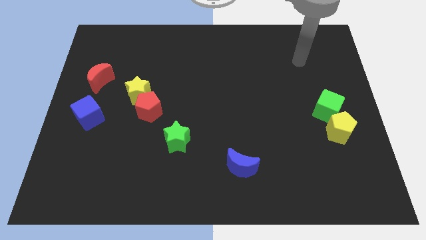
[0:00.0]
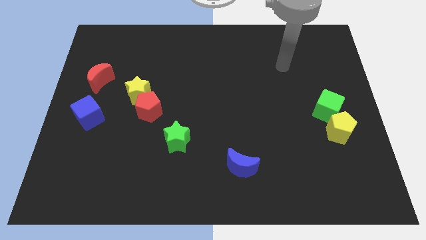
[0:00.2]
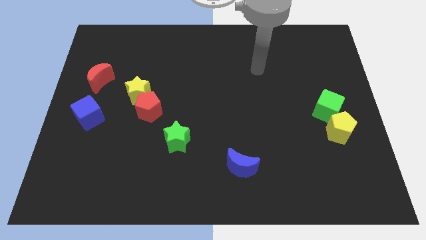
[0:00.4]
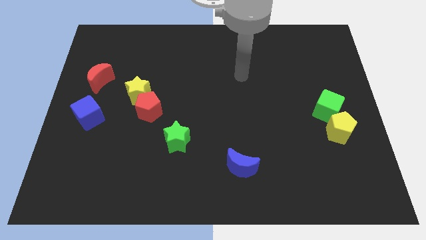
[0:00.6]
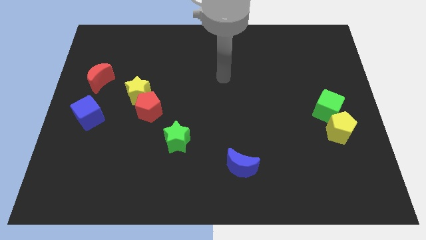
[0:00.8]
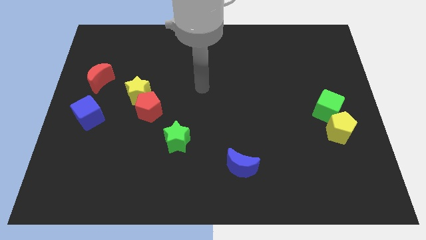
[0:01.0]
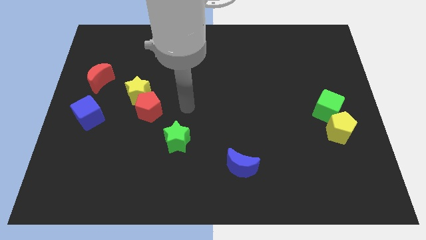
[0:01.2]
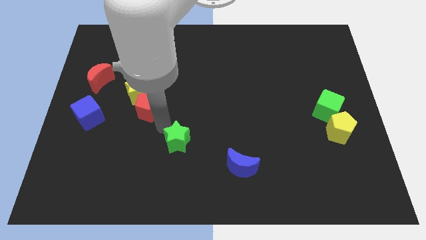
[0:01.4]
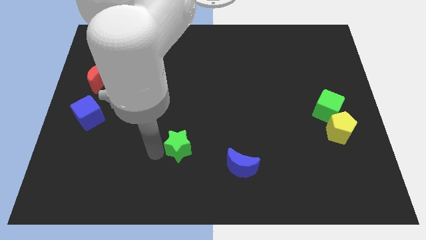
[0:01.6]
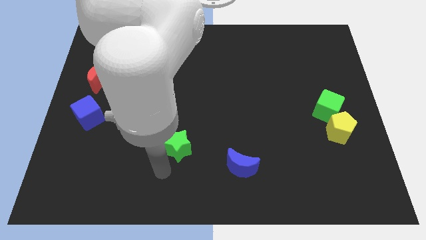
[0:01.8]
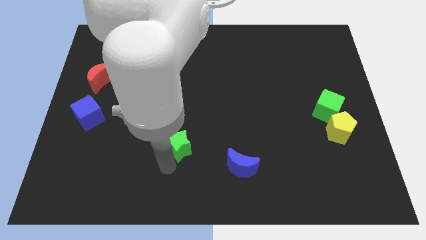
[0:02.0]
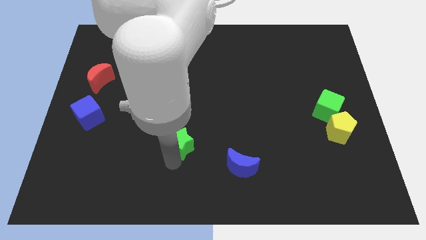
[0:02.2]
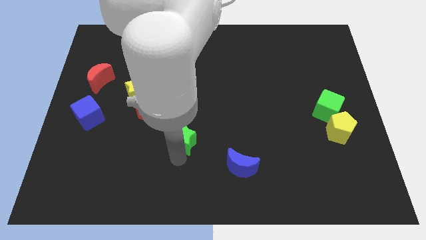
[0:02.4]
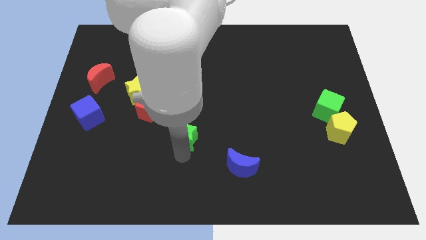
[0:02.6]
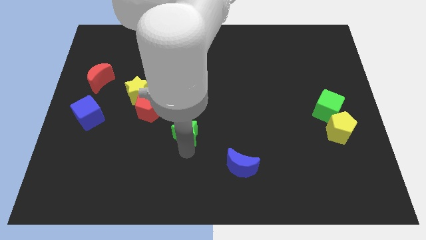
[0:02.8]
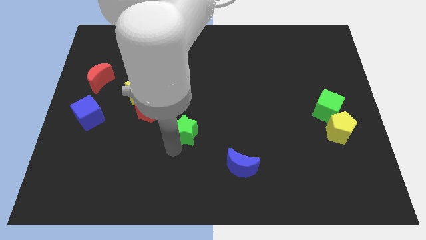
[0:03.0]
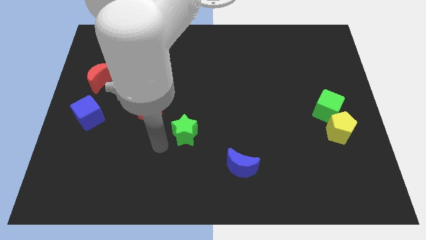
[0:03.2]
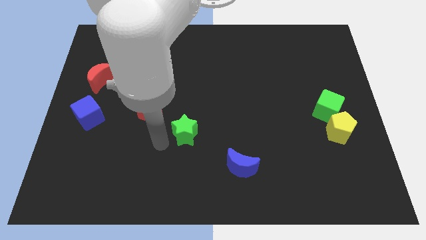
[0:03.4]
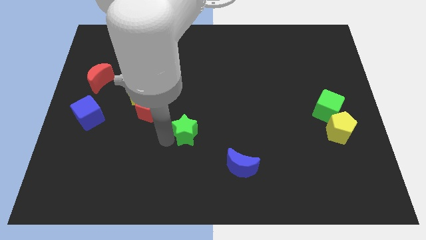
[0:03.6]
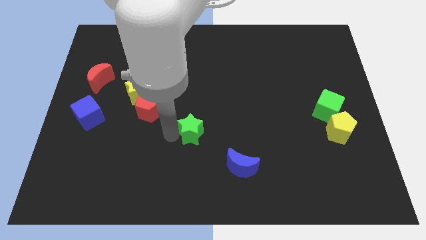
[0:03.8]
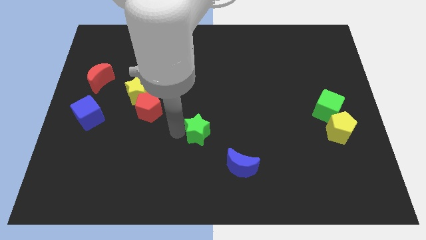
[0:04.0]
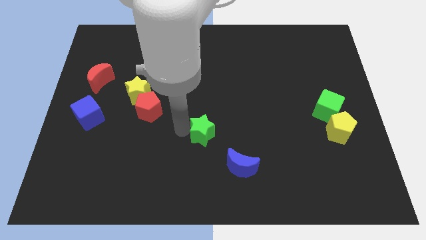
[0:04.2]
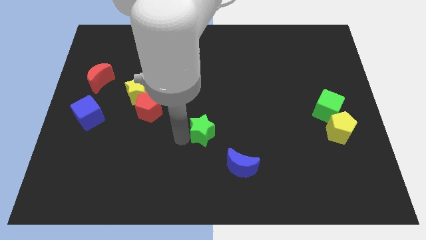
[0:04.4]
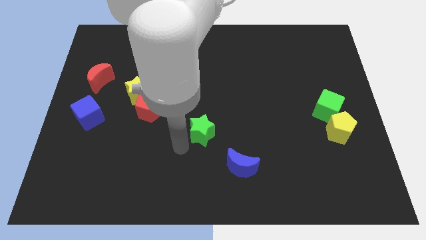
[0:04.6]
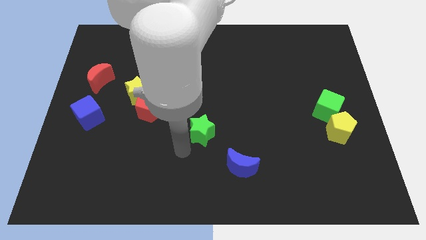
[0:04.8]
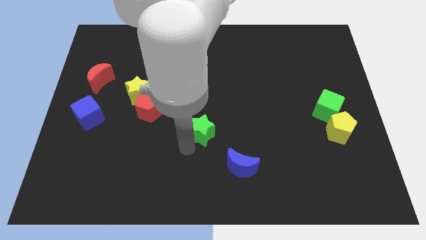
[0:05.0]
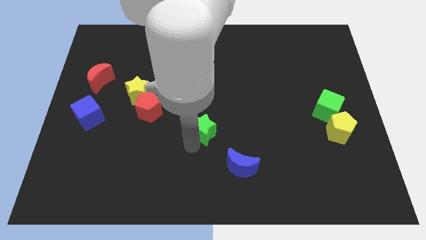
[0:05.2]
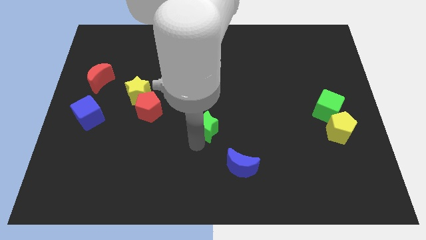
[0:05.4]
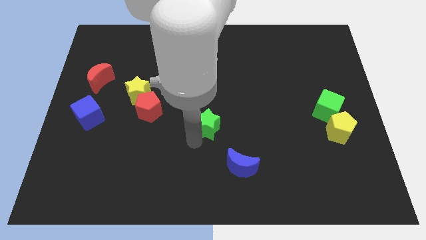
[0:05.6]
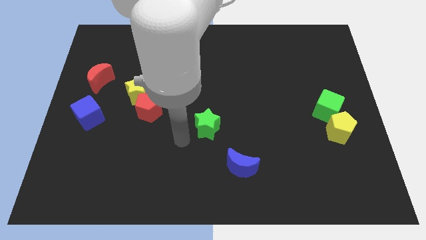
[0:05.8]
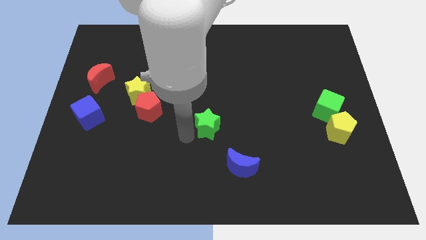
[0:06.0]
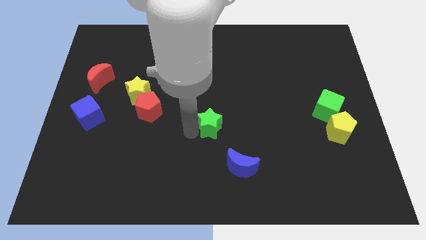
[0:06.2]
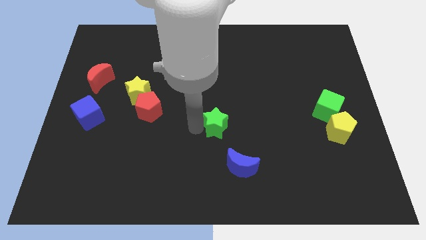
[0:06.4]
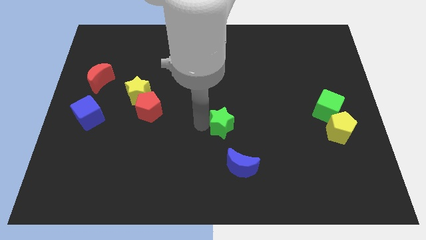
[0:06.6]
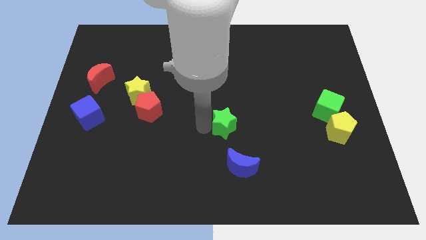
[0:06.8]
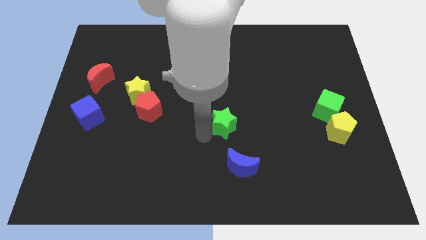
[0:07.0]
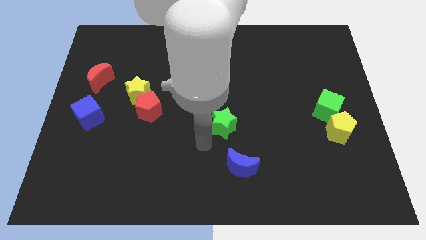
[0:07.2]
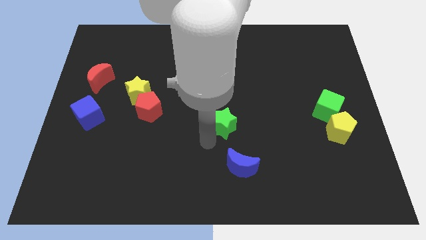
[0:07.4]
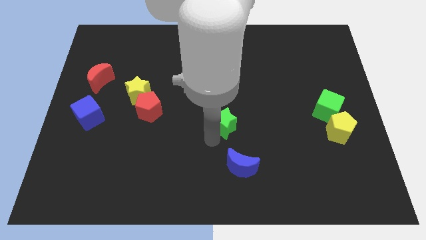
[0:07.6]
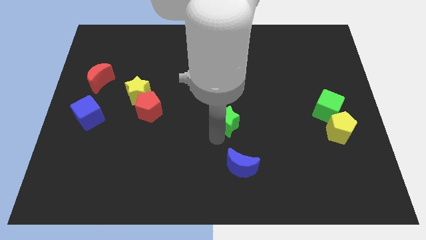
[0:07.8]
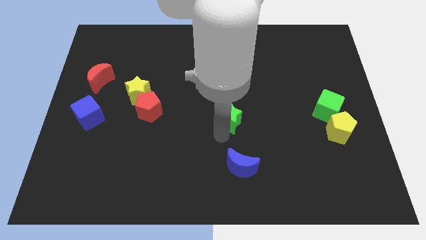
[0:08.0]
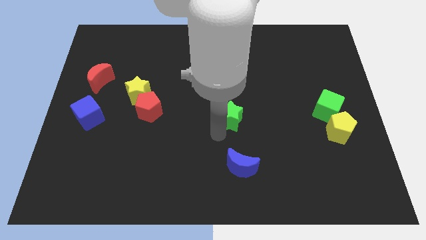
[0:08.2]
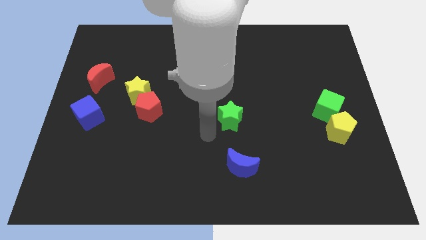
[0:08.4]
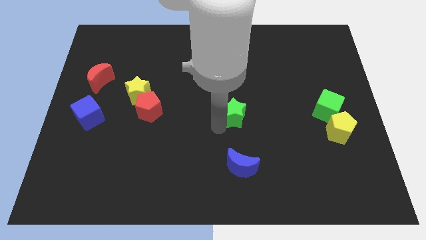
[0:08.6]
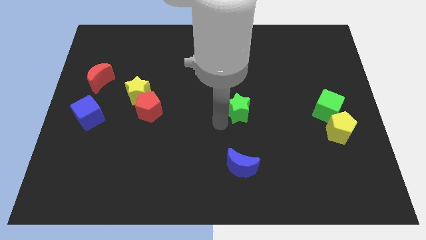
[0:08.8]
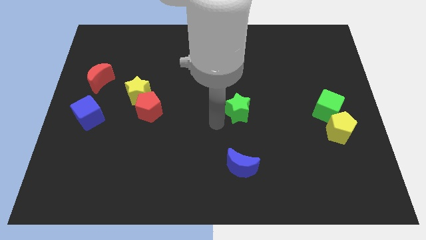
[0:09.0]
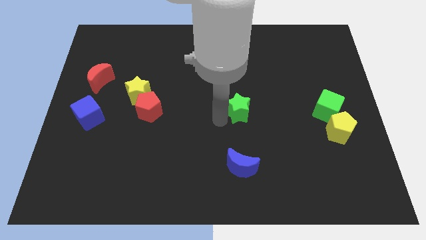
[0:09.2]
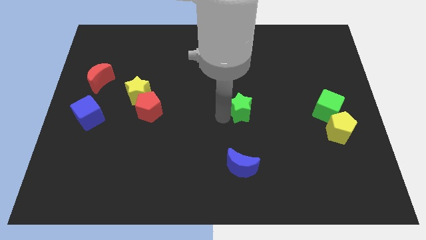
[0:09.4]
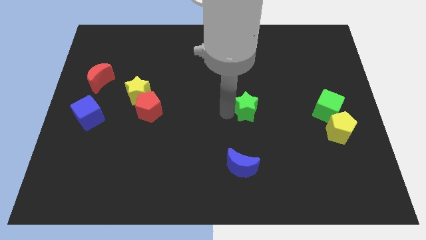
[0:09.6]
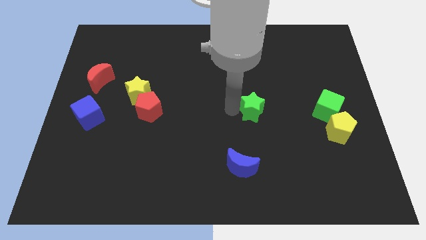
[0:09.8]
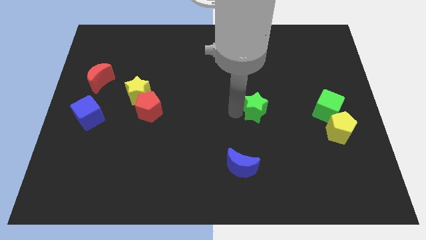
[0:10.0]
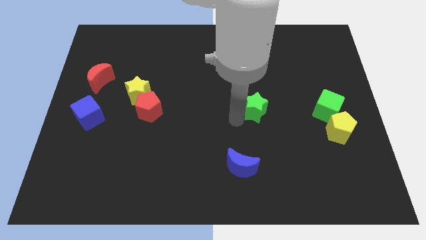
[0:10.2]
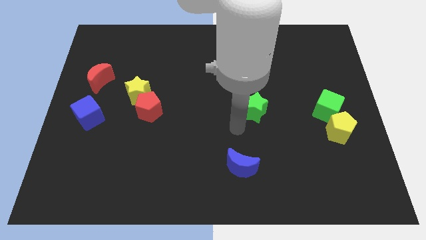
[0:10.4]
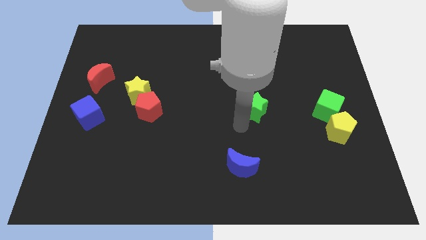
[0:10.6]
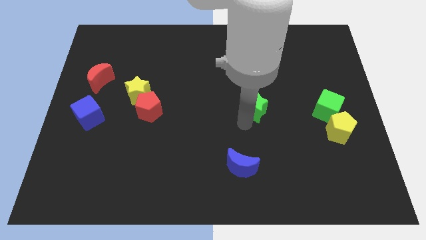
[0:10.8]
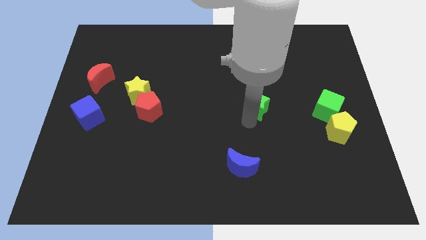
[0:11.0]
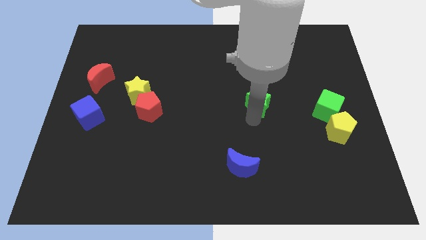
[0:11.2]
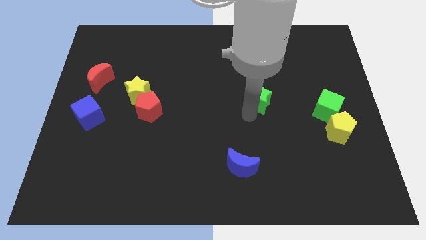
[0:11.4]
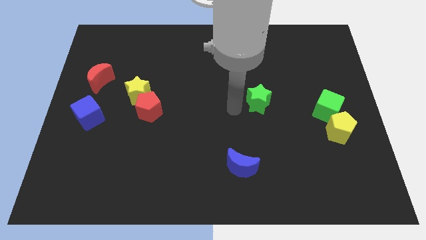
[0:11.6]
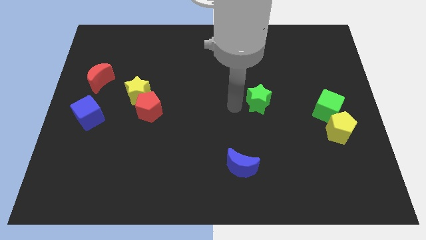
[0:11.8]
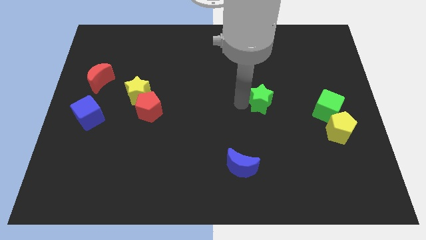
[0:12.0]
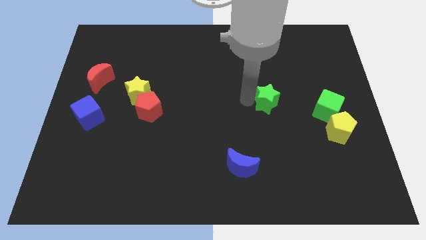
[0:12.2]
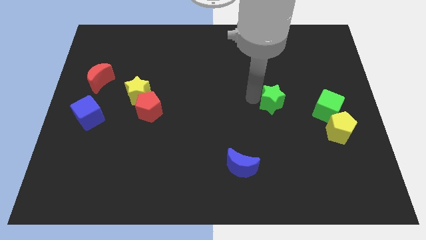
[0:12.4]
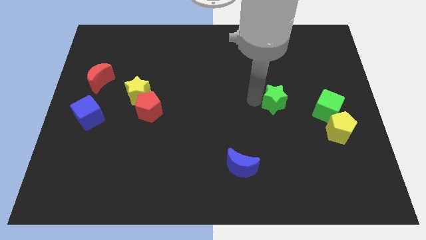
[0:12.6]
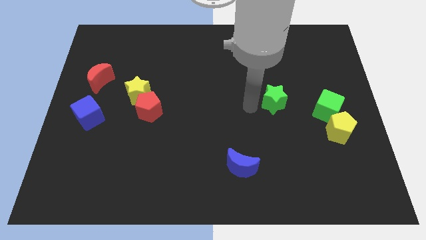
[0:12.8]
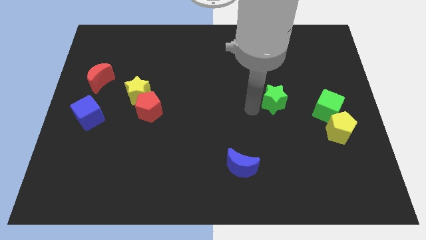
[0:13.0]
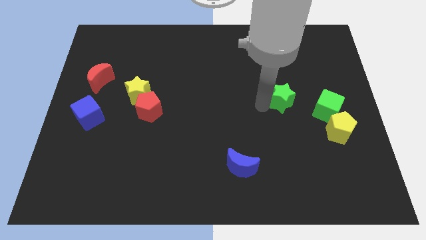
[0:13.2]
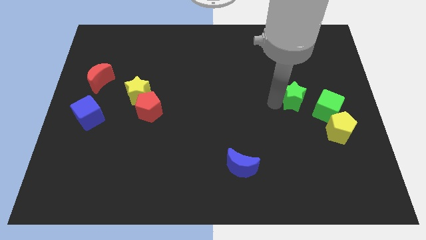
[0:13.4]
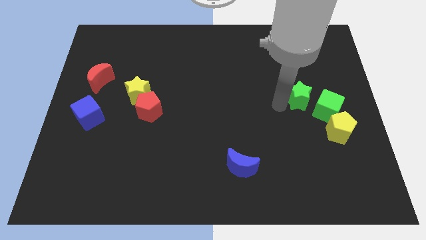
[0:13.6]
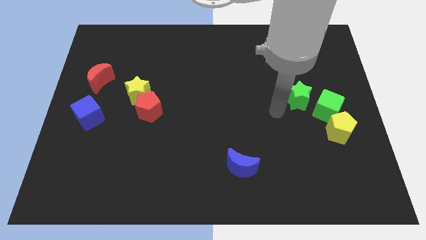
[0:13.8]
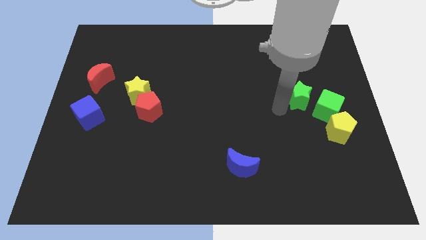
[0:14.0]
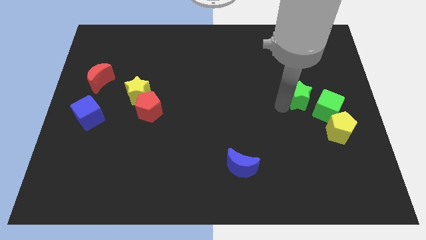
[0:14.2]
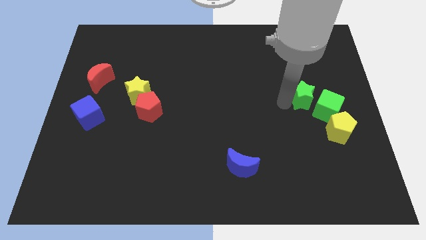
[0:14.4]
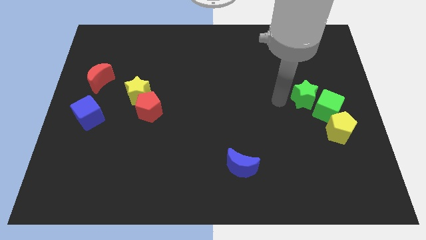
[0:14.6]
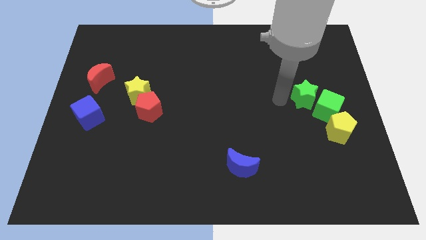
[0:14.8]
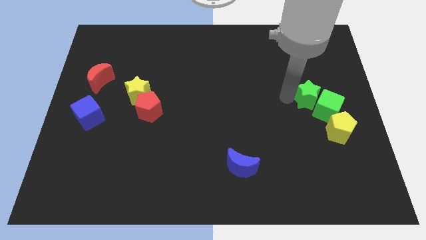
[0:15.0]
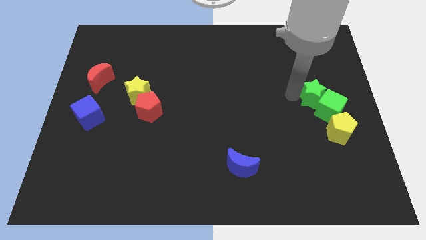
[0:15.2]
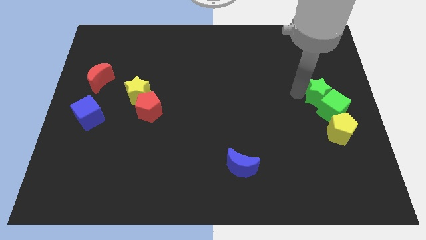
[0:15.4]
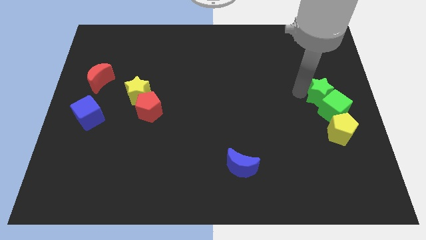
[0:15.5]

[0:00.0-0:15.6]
move the green star to the right side
